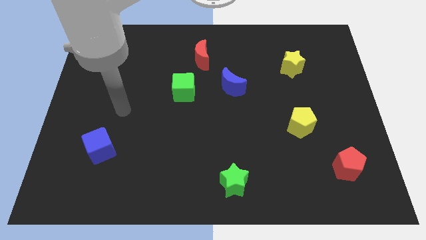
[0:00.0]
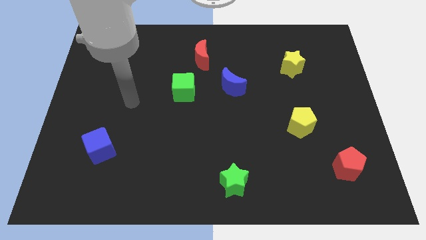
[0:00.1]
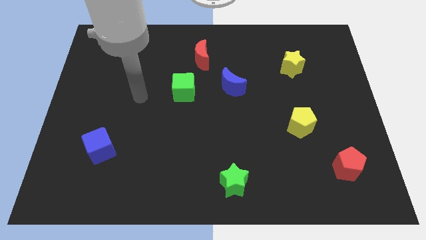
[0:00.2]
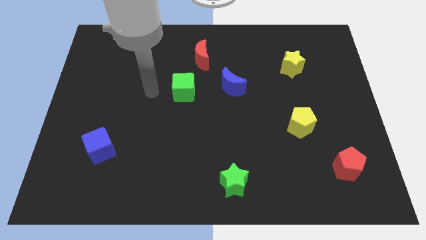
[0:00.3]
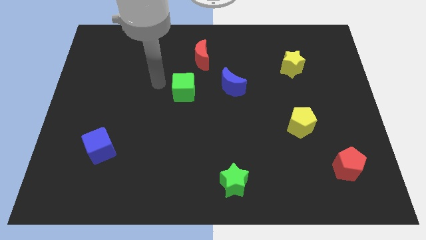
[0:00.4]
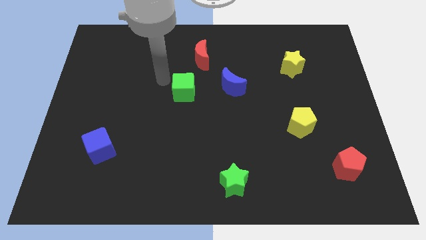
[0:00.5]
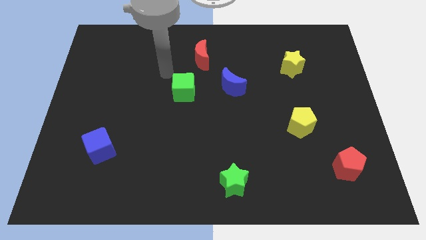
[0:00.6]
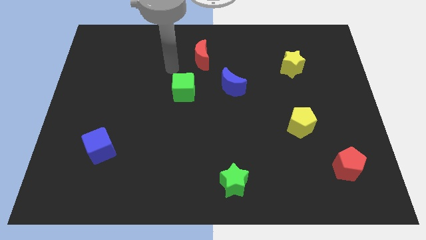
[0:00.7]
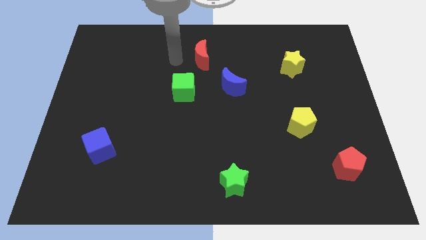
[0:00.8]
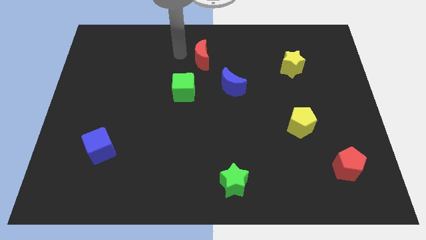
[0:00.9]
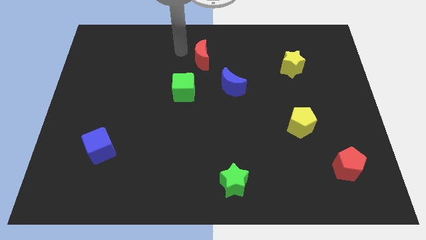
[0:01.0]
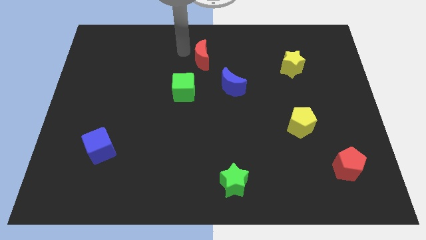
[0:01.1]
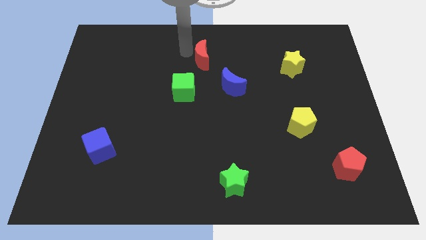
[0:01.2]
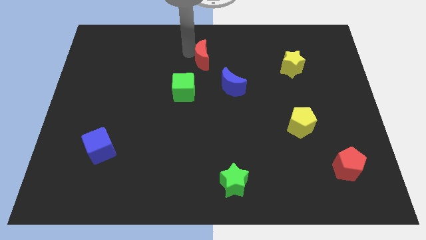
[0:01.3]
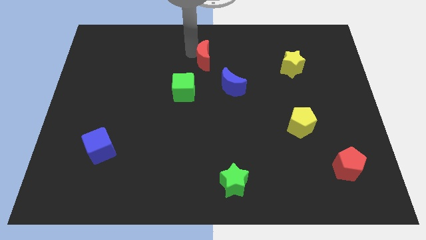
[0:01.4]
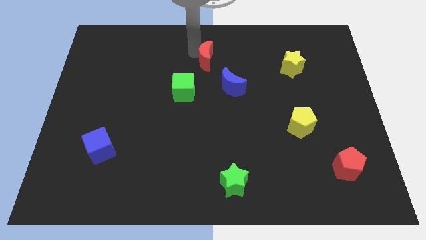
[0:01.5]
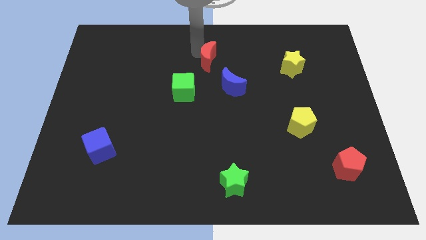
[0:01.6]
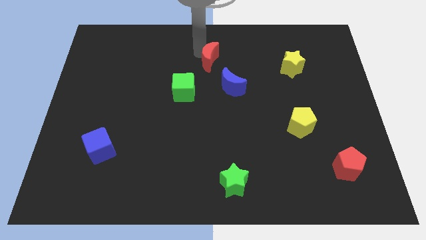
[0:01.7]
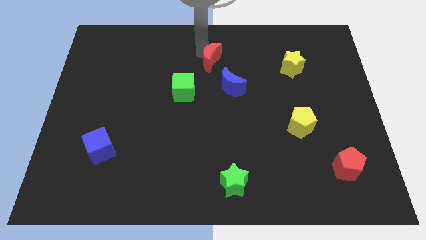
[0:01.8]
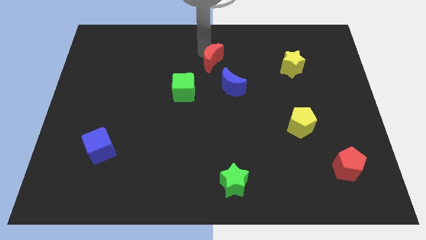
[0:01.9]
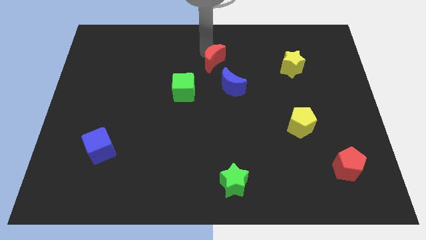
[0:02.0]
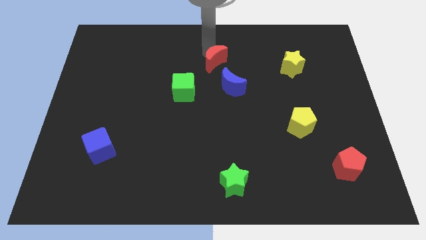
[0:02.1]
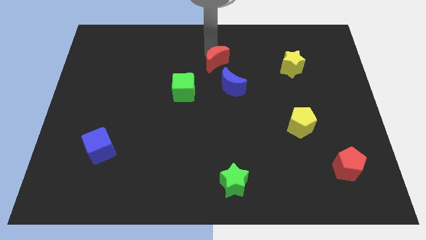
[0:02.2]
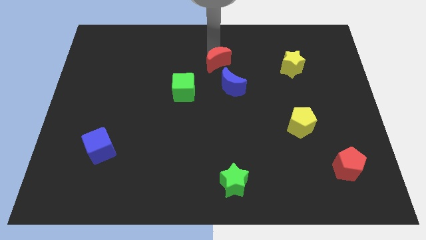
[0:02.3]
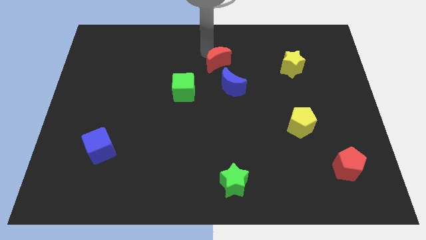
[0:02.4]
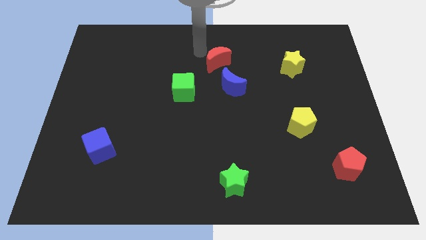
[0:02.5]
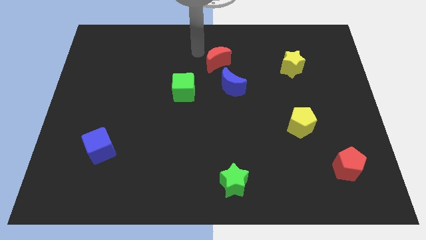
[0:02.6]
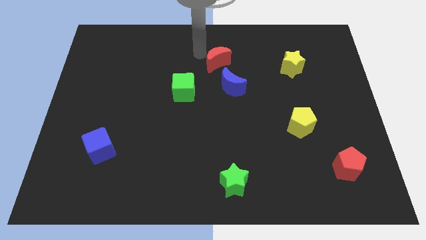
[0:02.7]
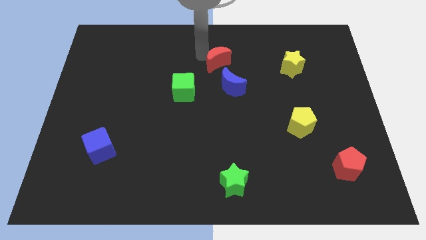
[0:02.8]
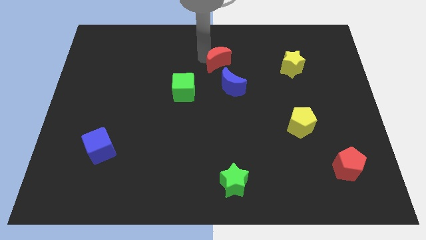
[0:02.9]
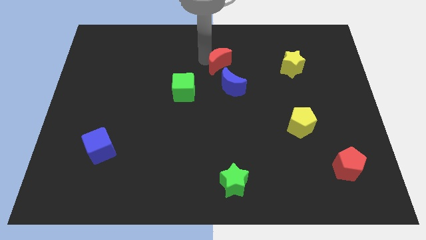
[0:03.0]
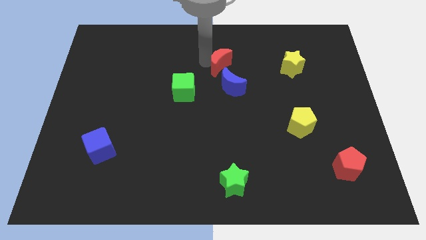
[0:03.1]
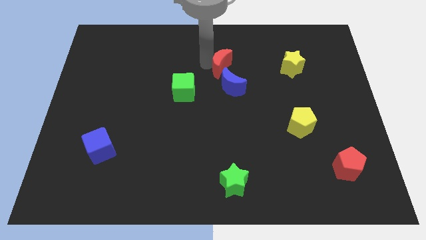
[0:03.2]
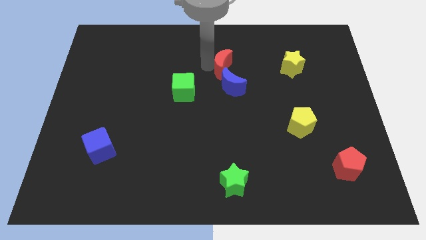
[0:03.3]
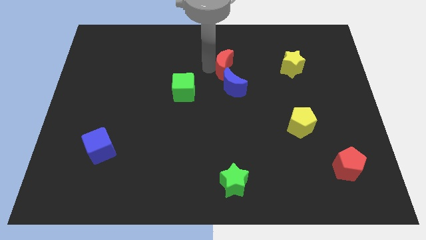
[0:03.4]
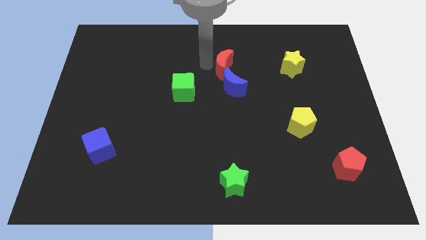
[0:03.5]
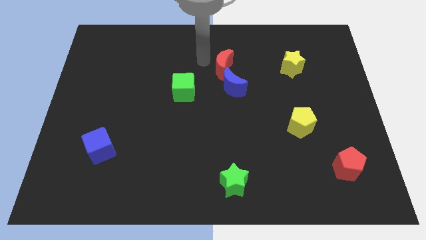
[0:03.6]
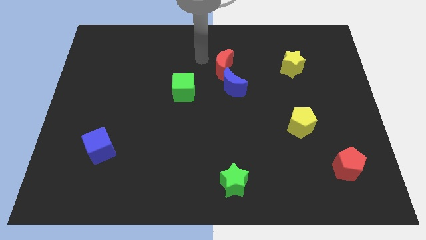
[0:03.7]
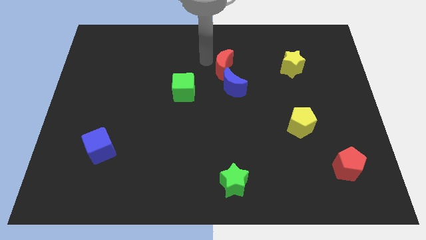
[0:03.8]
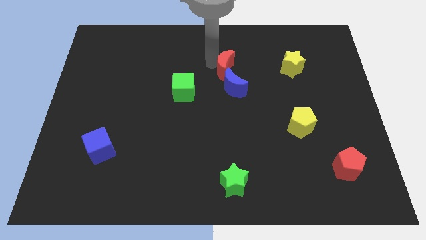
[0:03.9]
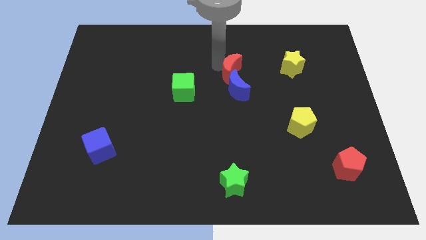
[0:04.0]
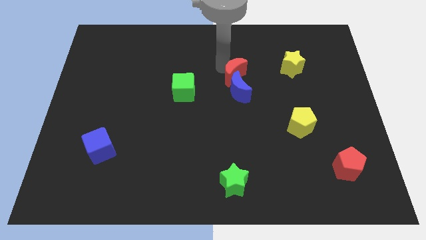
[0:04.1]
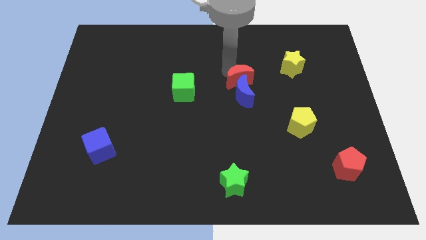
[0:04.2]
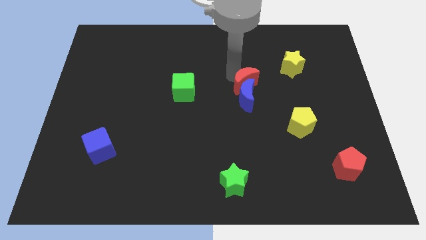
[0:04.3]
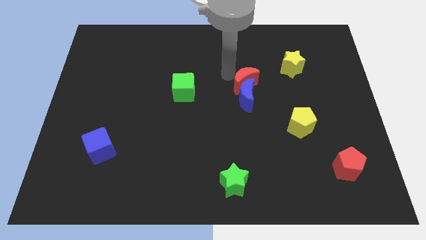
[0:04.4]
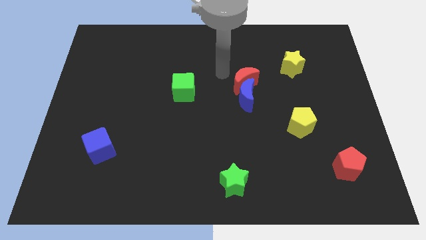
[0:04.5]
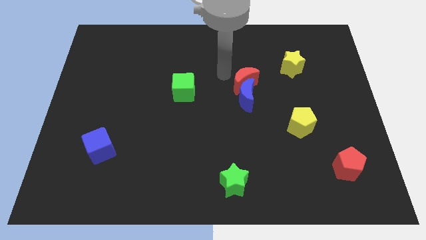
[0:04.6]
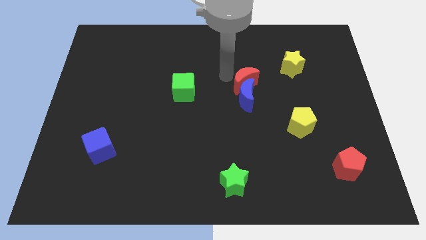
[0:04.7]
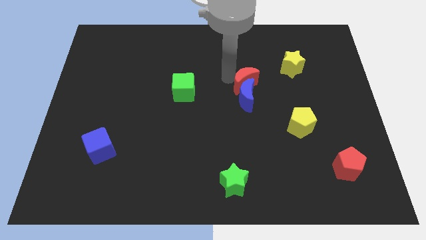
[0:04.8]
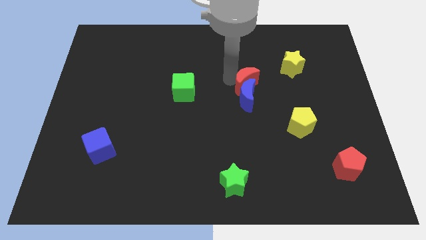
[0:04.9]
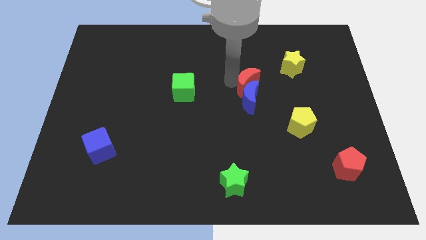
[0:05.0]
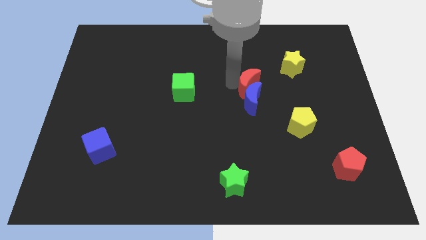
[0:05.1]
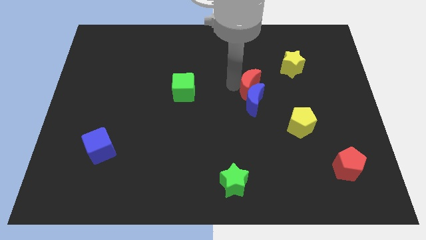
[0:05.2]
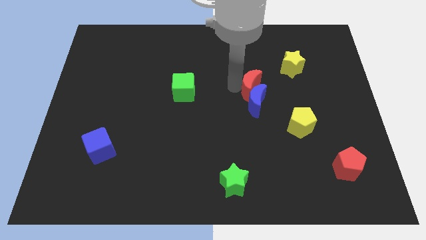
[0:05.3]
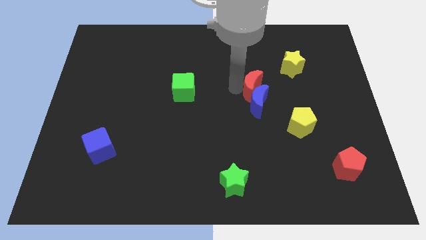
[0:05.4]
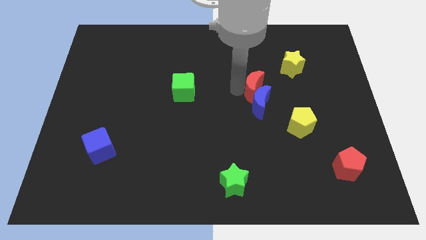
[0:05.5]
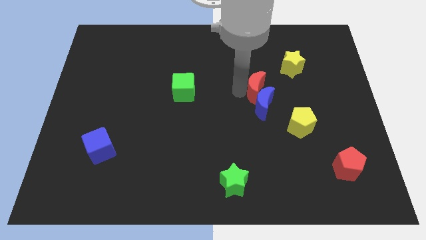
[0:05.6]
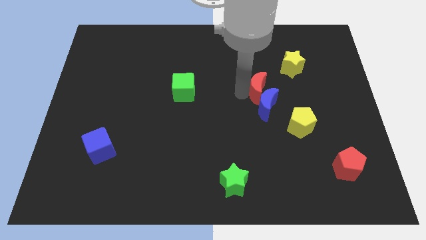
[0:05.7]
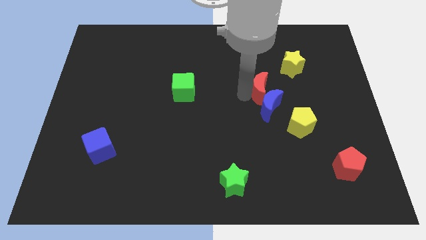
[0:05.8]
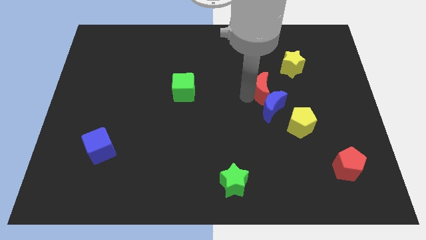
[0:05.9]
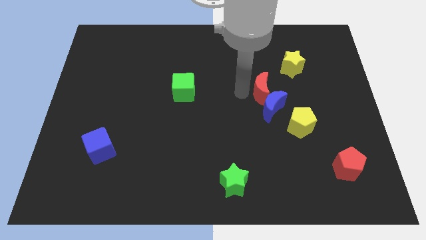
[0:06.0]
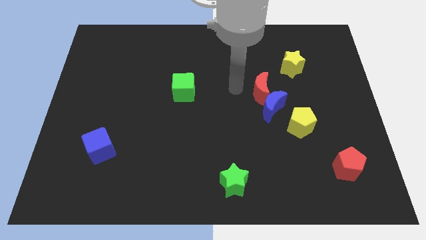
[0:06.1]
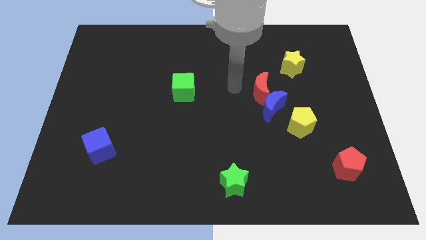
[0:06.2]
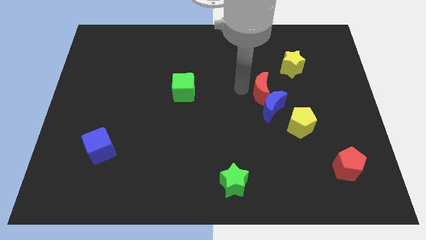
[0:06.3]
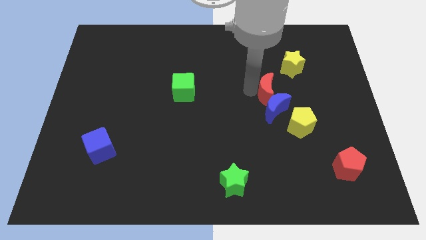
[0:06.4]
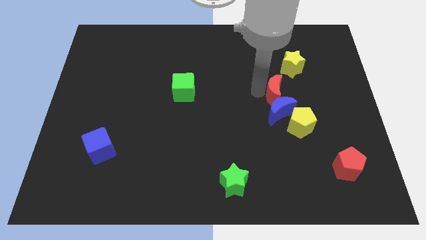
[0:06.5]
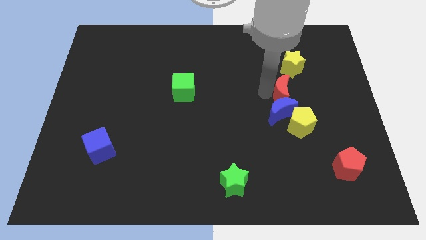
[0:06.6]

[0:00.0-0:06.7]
move the red moon below the yellow star

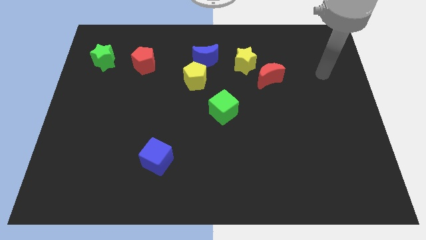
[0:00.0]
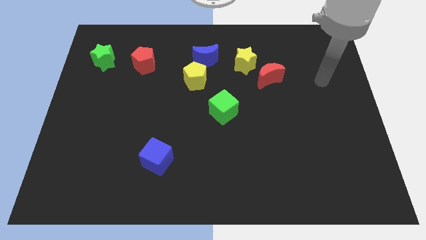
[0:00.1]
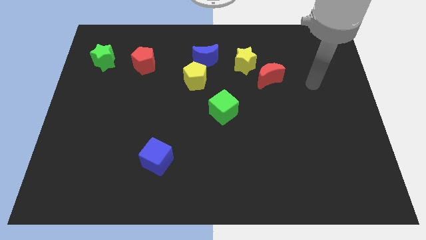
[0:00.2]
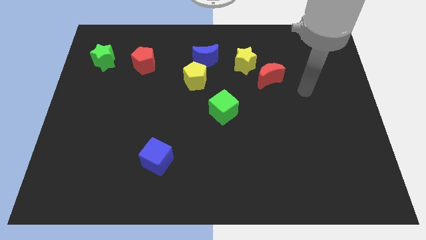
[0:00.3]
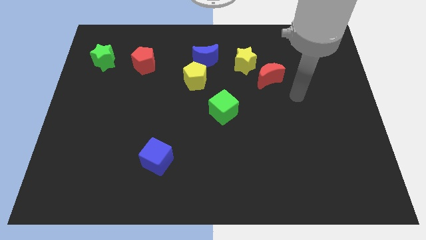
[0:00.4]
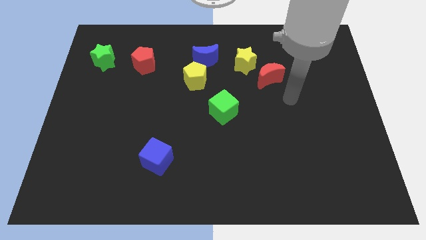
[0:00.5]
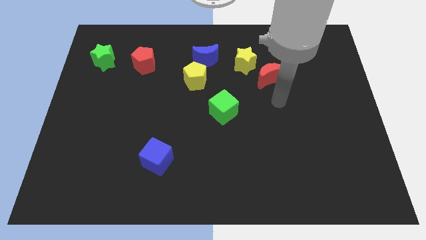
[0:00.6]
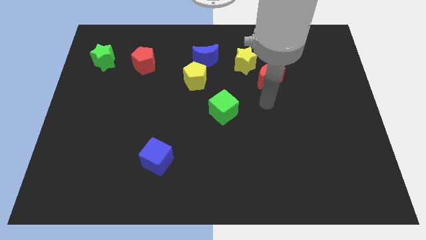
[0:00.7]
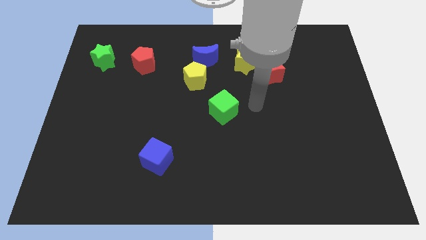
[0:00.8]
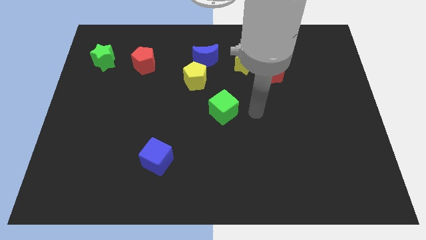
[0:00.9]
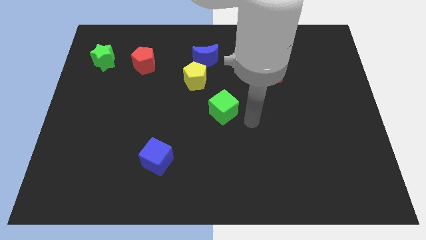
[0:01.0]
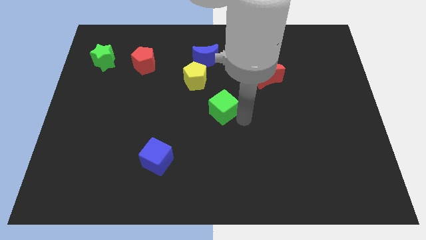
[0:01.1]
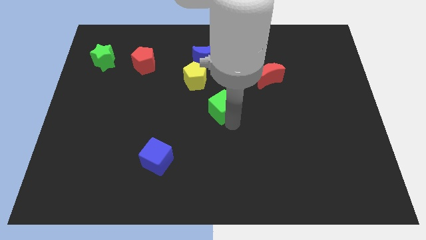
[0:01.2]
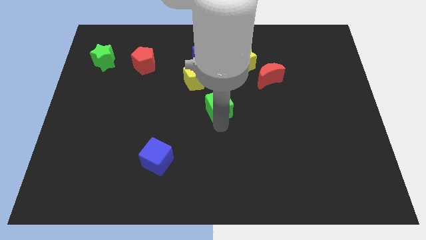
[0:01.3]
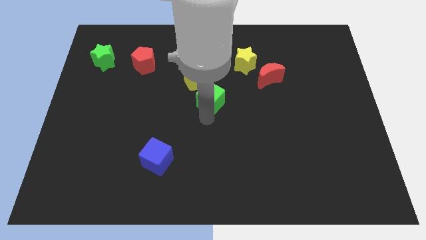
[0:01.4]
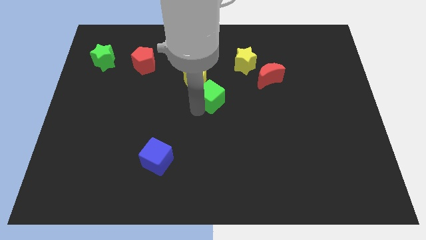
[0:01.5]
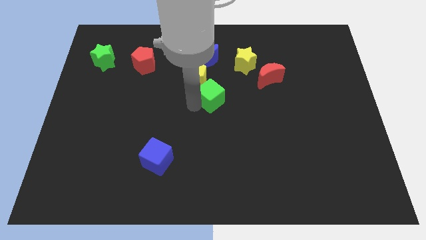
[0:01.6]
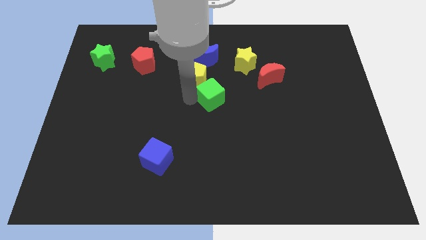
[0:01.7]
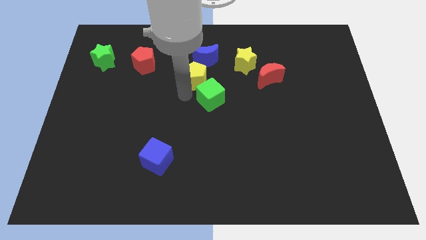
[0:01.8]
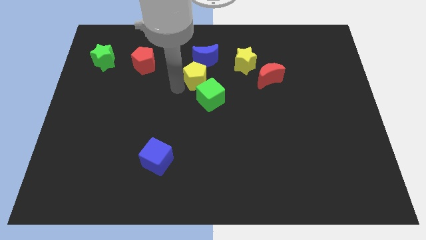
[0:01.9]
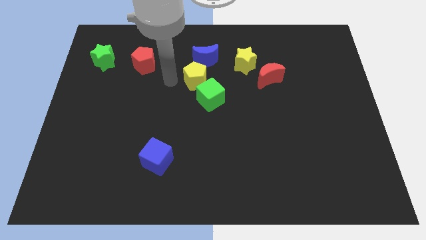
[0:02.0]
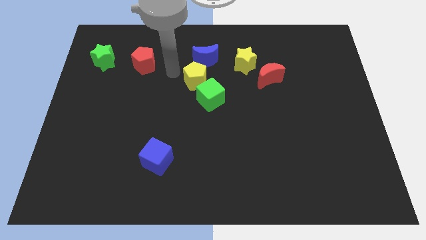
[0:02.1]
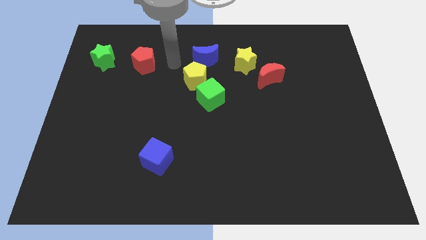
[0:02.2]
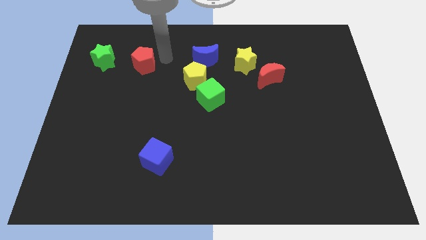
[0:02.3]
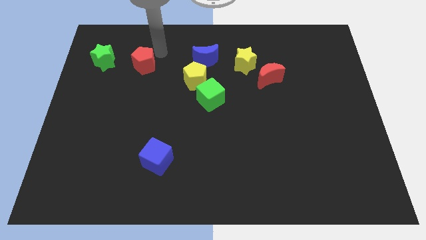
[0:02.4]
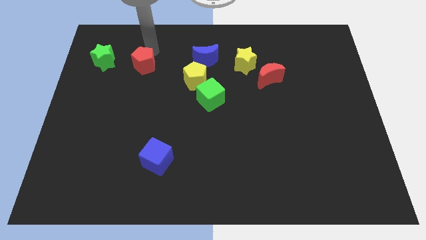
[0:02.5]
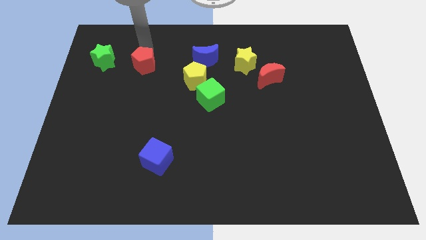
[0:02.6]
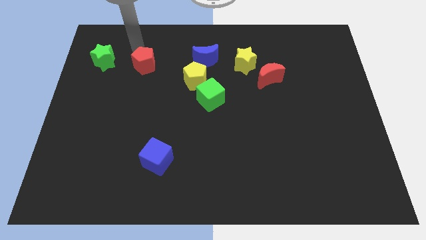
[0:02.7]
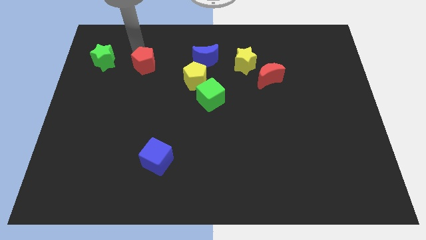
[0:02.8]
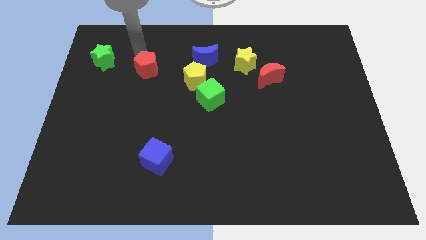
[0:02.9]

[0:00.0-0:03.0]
put the red pentagon to the left side of the yellow pentagon
